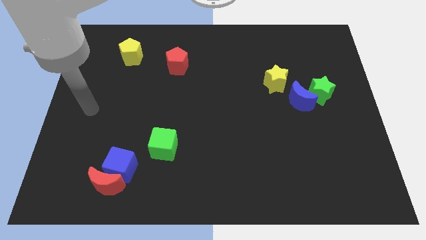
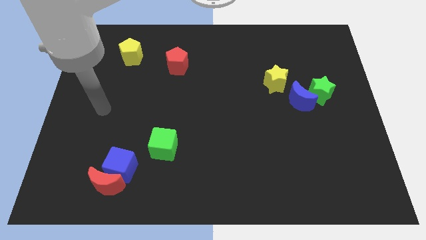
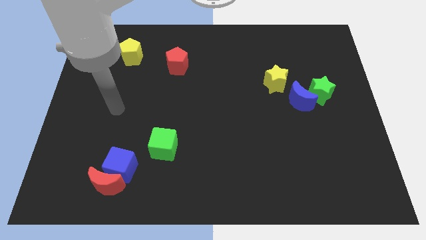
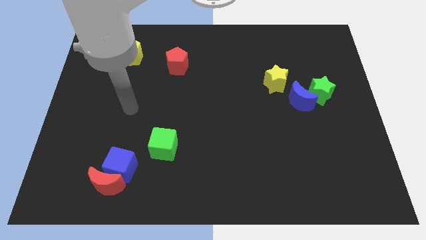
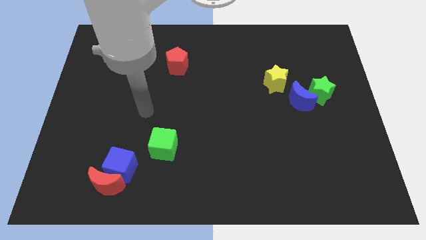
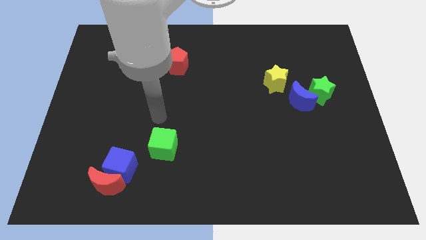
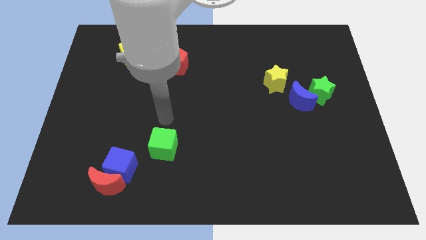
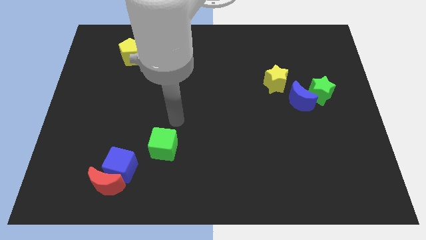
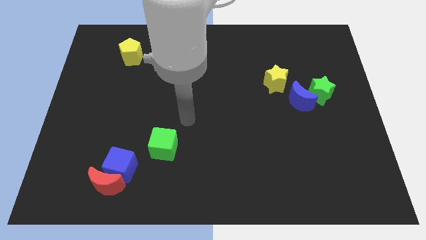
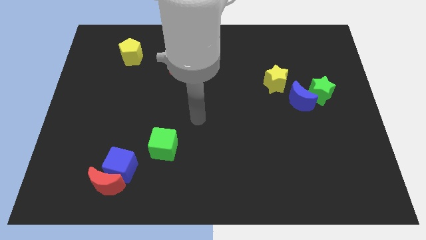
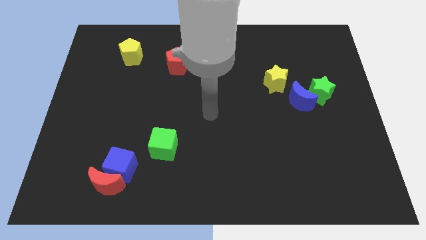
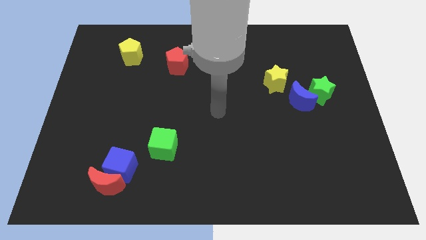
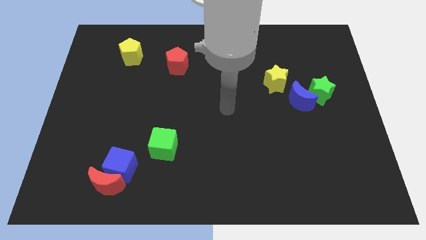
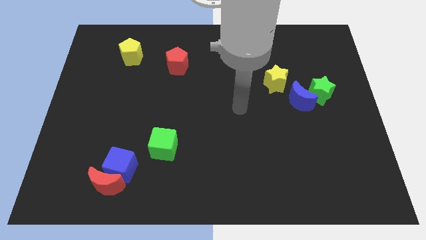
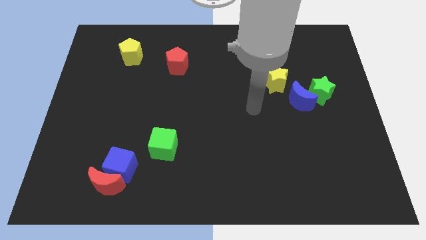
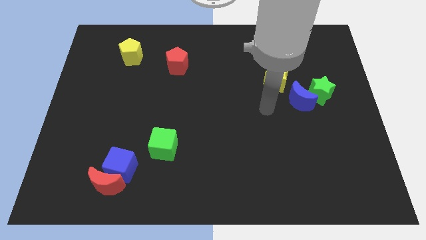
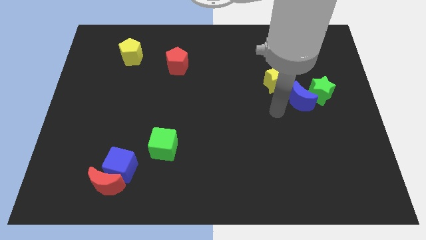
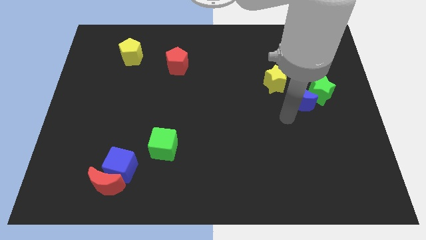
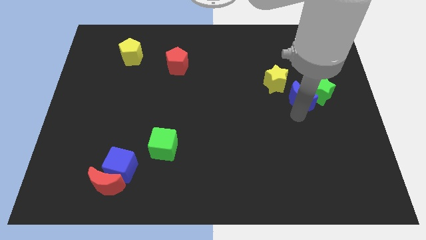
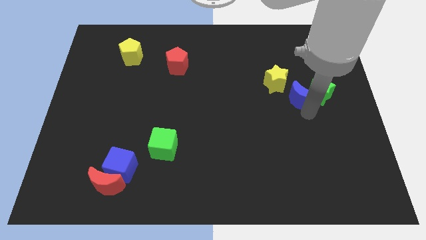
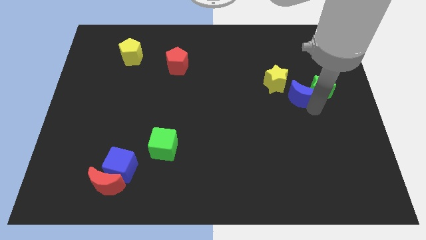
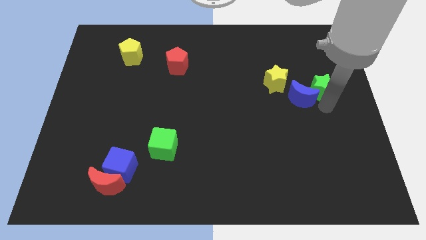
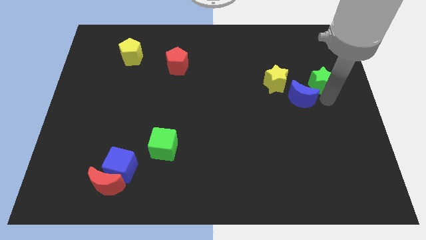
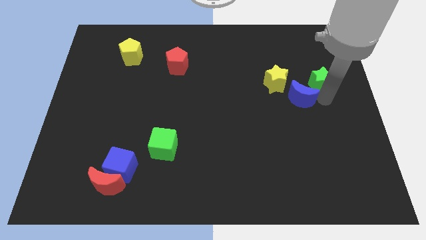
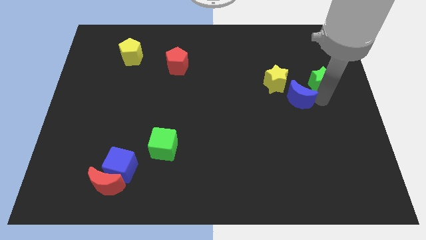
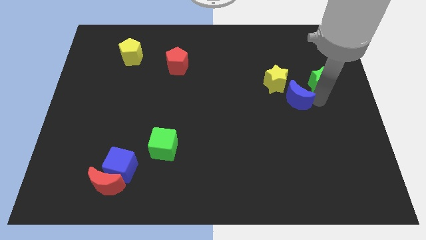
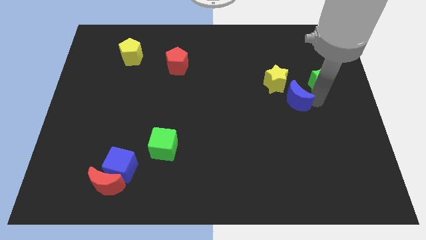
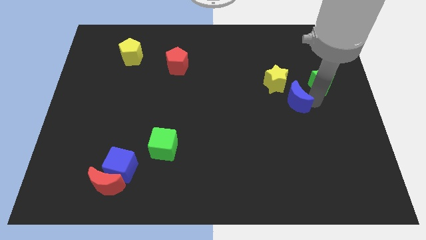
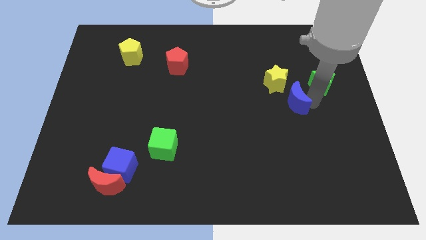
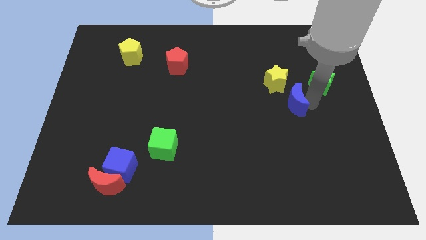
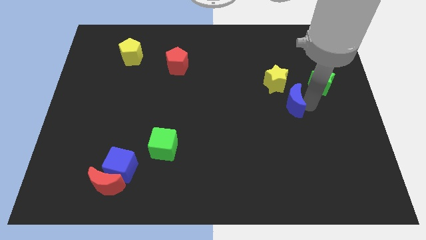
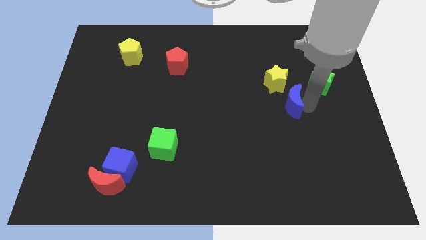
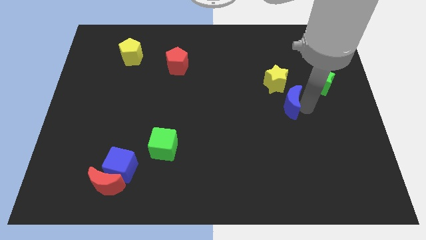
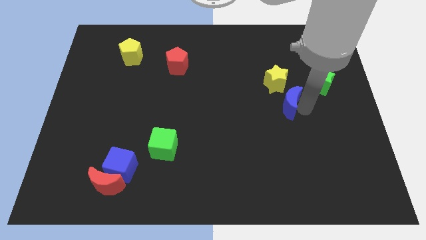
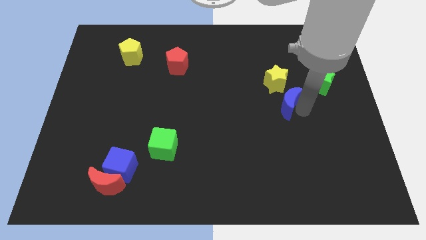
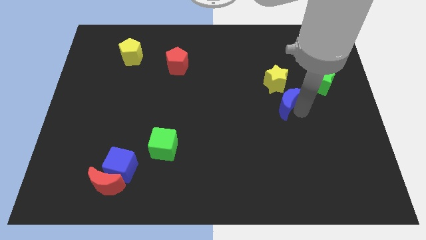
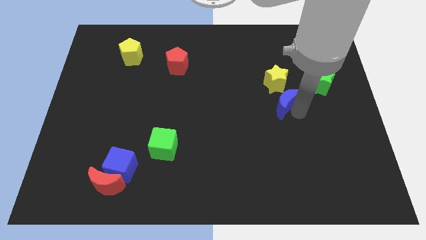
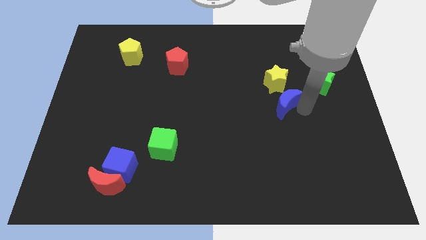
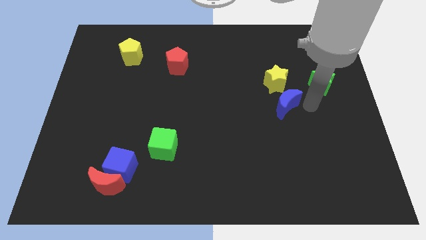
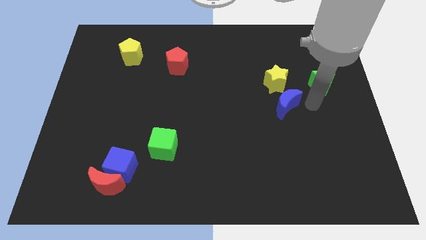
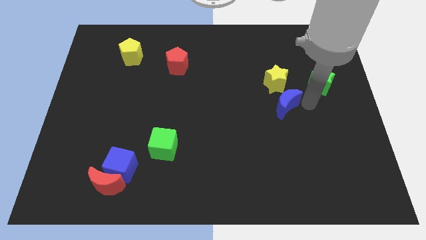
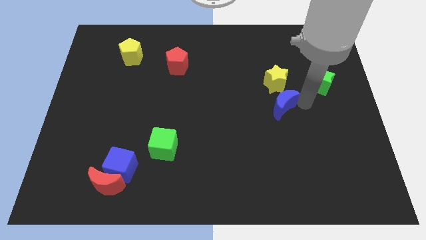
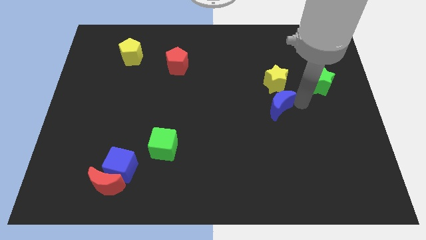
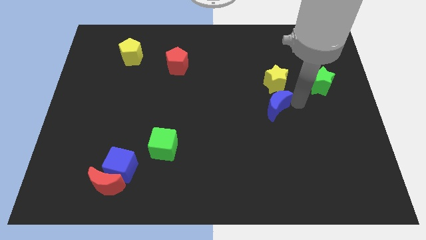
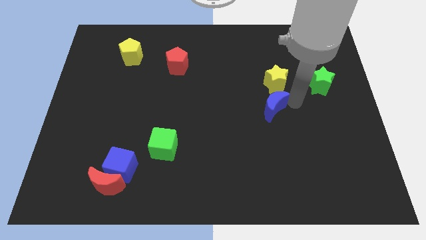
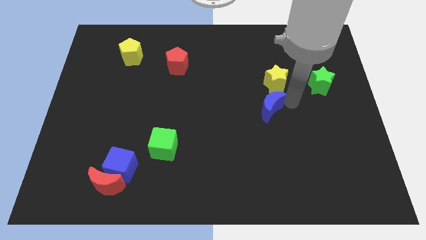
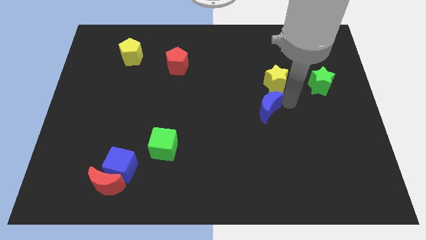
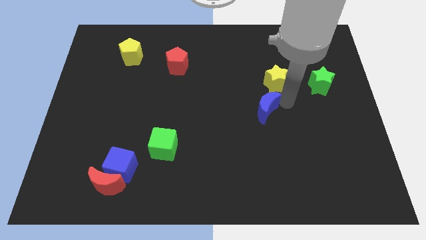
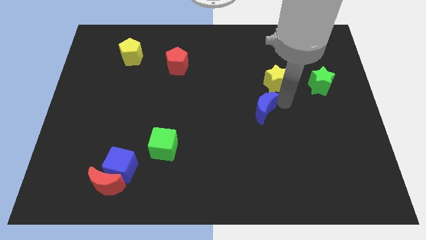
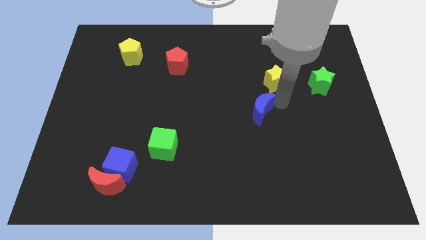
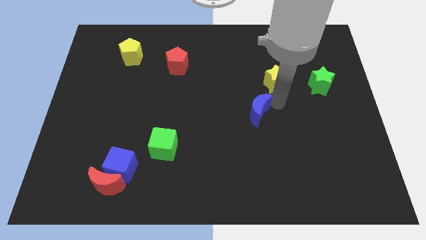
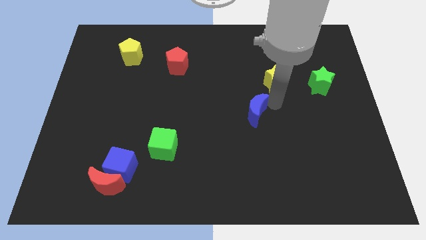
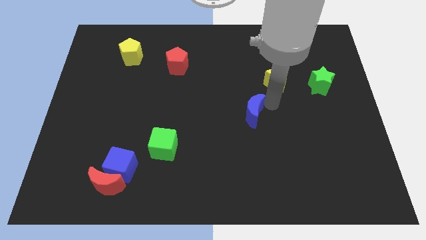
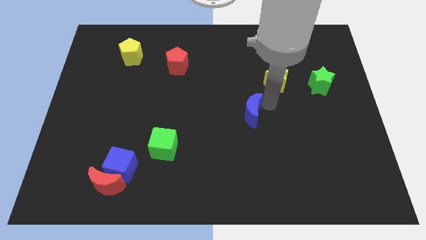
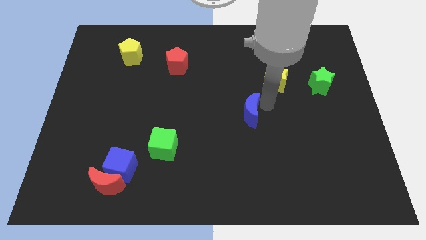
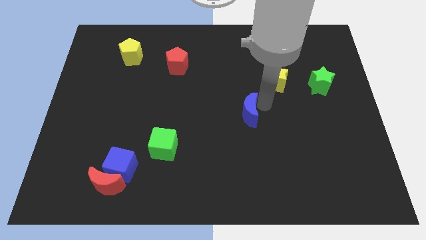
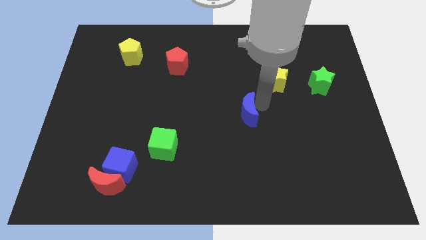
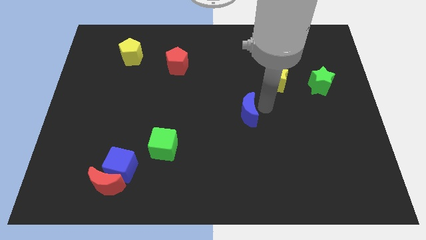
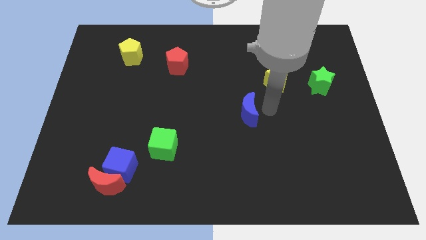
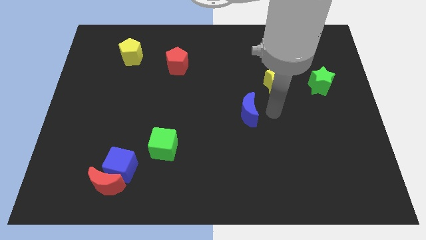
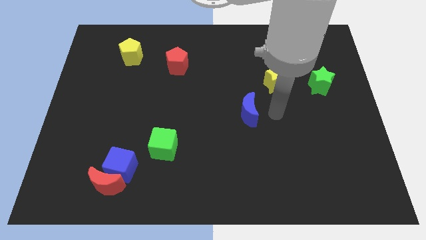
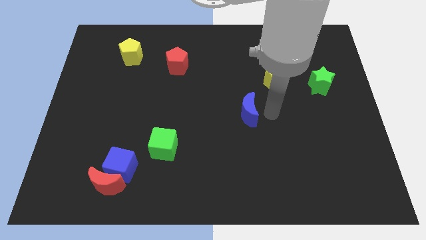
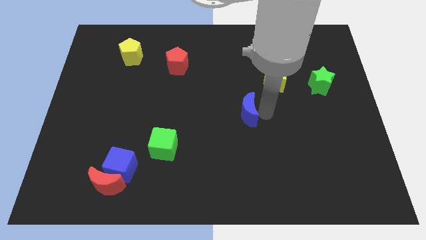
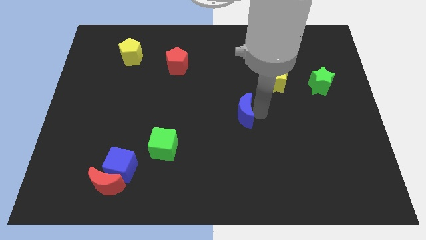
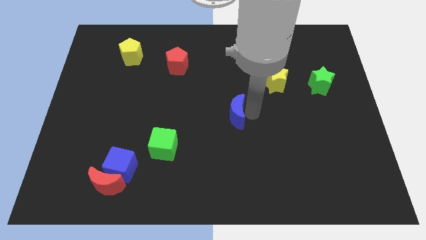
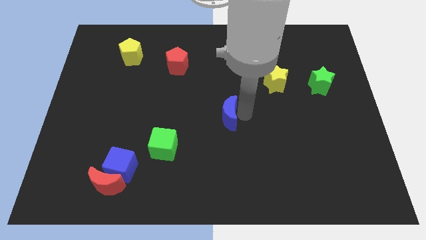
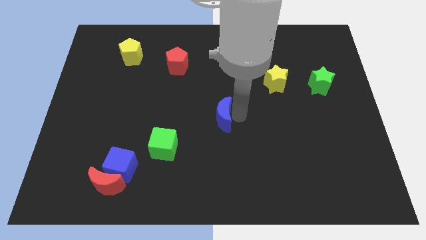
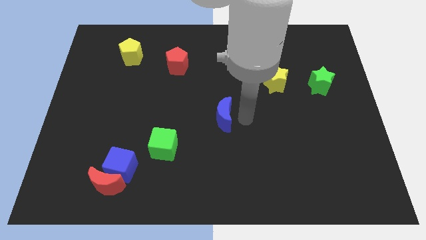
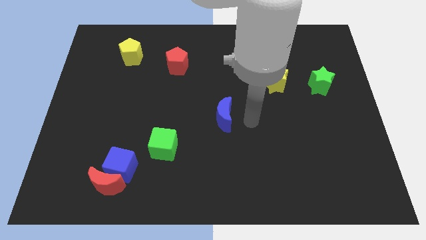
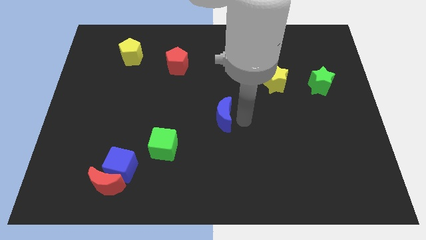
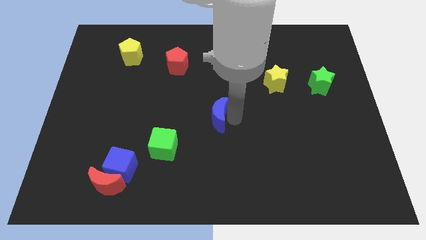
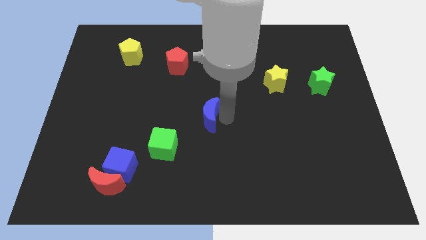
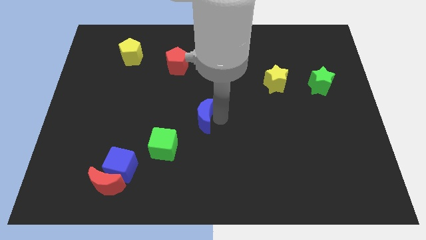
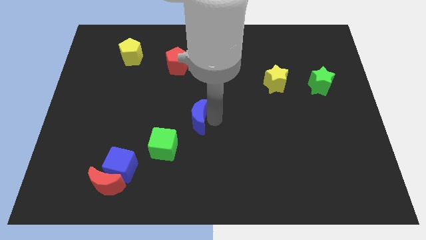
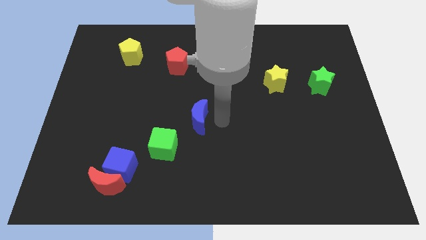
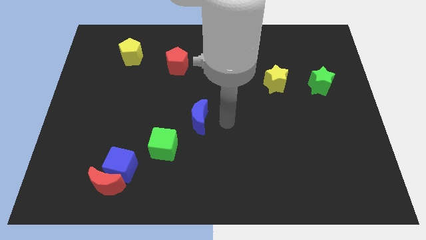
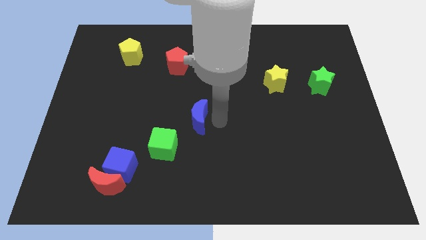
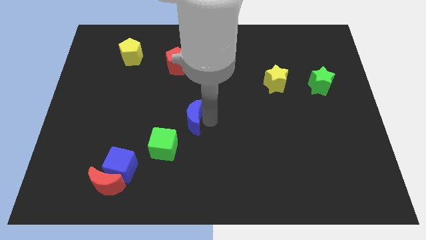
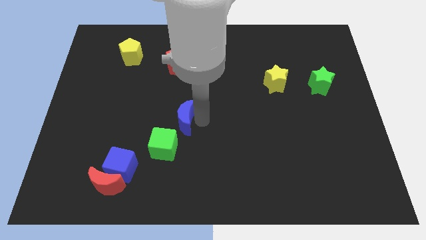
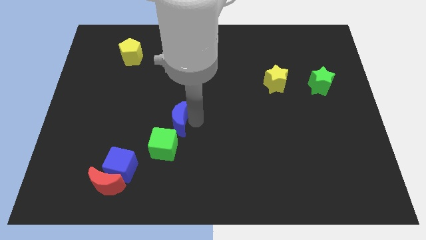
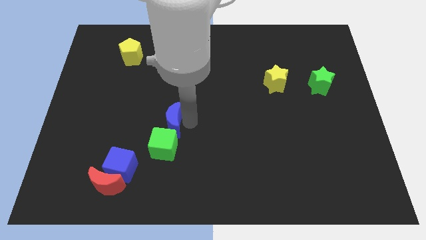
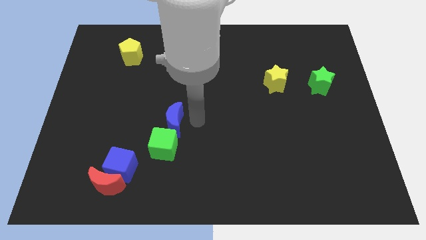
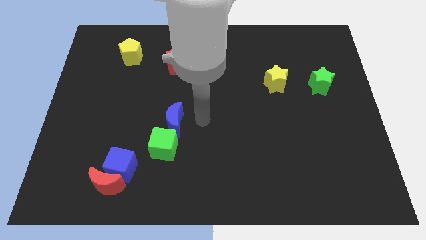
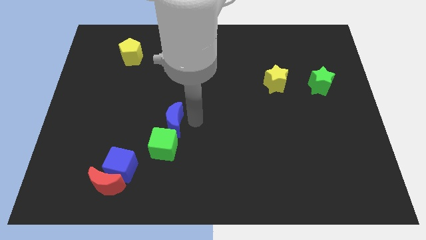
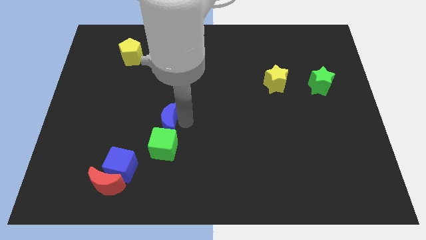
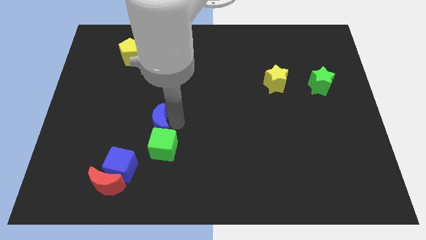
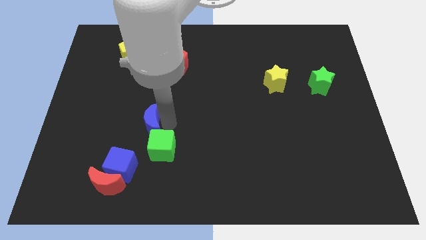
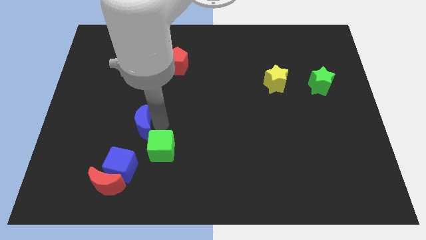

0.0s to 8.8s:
move the blue moon above the blue cube
